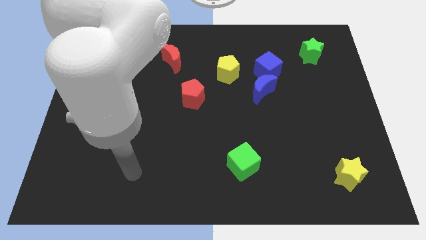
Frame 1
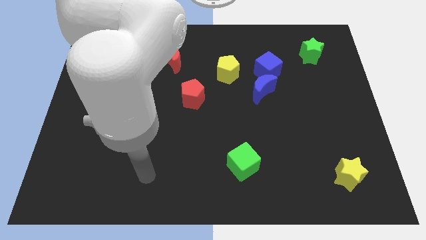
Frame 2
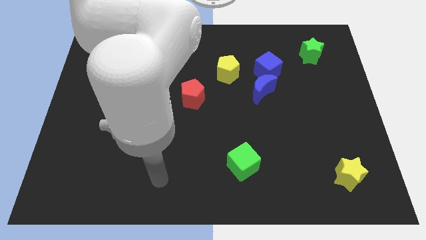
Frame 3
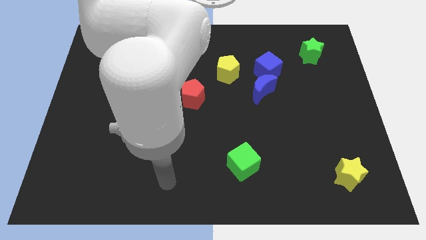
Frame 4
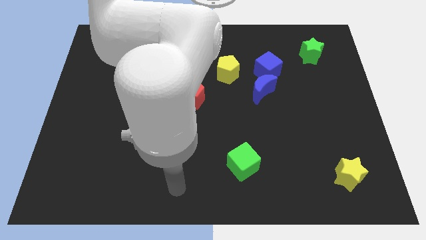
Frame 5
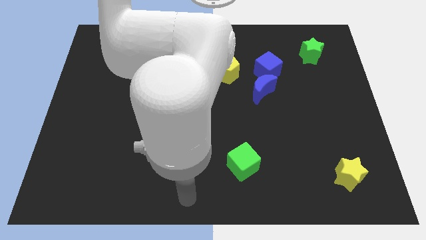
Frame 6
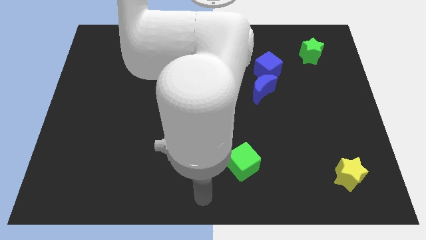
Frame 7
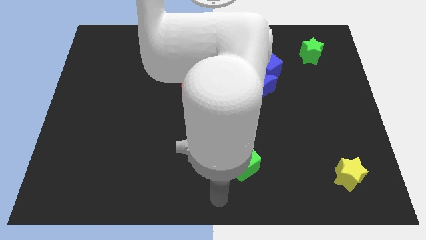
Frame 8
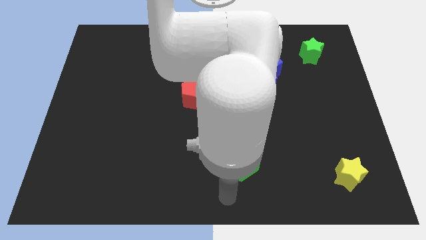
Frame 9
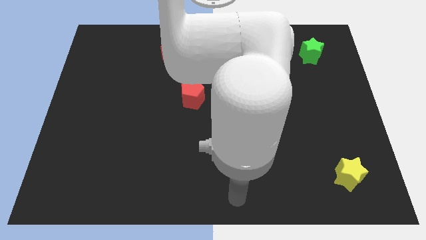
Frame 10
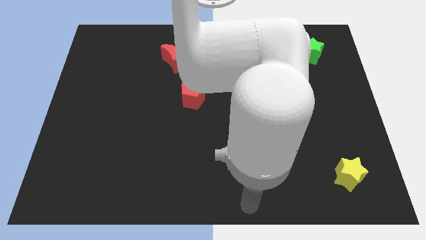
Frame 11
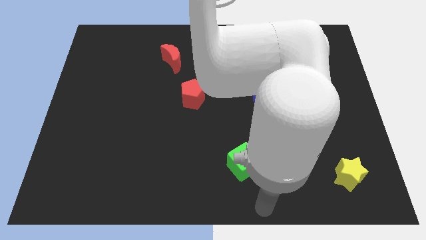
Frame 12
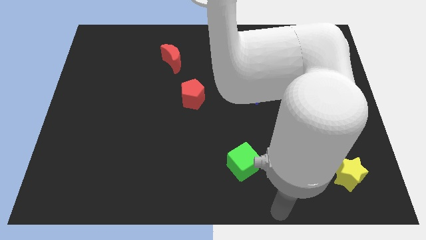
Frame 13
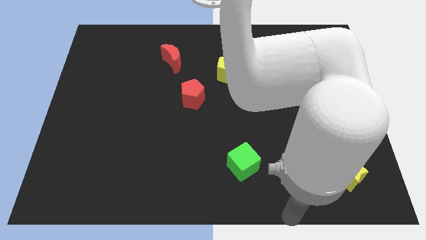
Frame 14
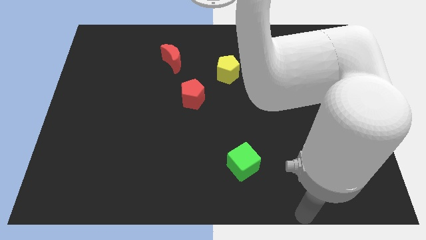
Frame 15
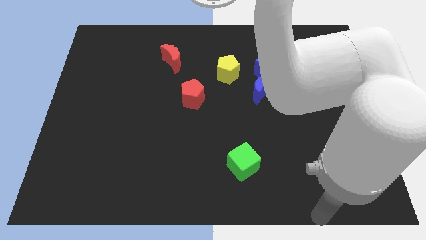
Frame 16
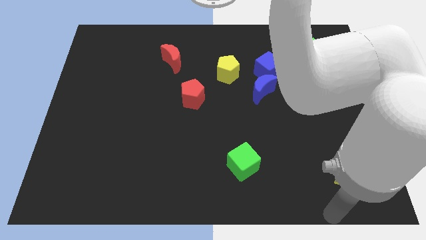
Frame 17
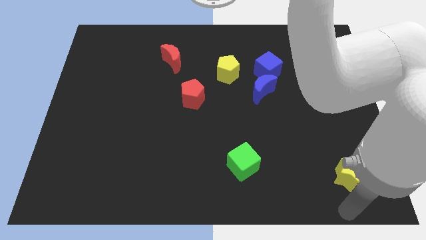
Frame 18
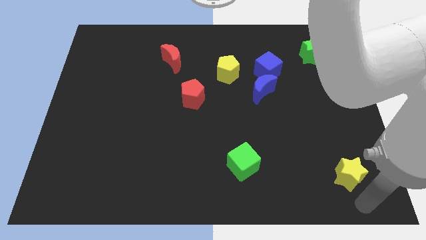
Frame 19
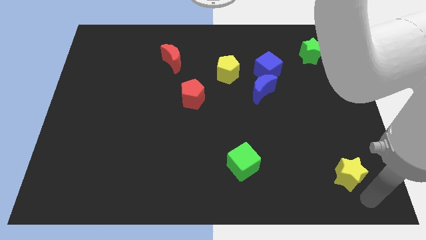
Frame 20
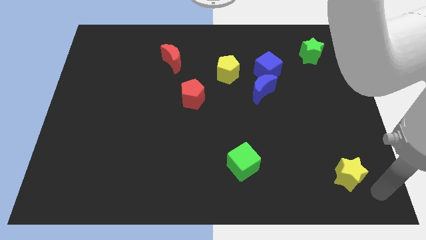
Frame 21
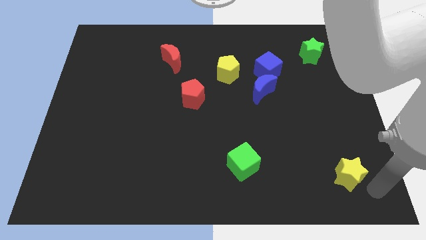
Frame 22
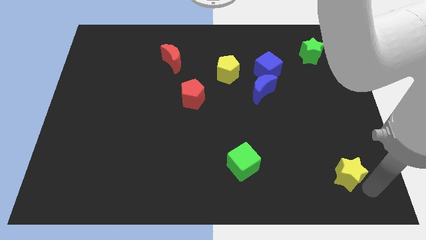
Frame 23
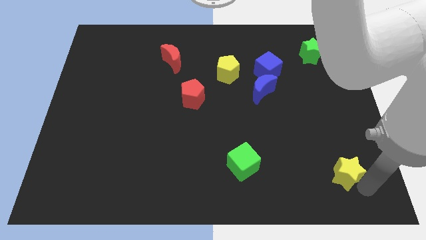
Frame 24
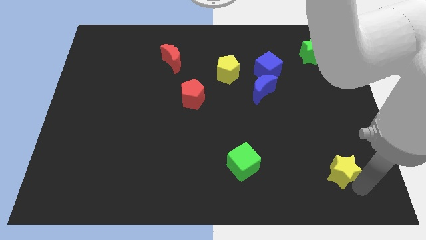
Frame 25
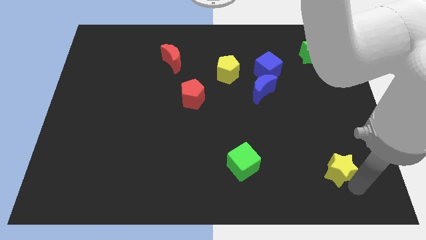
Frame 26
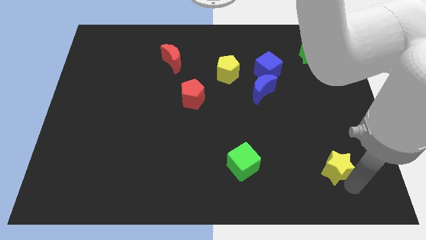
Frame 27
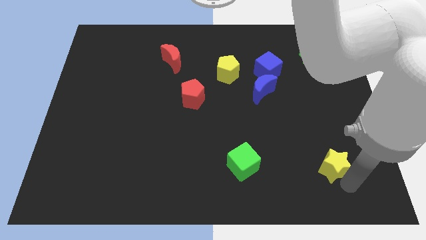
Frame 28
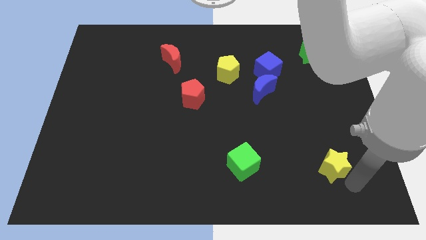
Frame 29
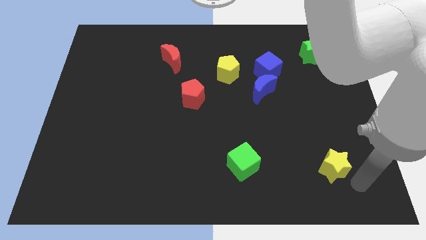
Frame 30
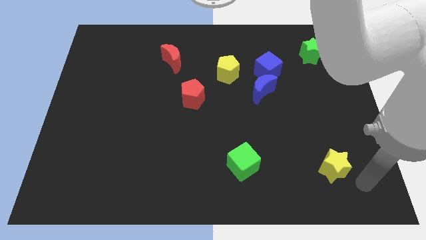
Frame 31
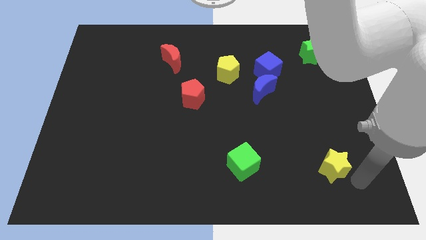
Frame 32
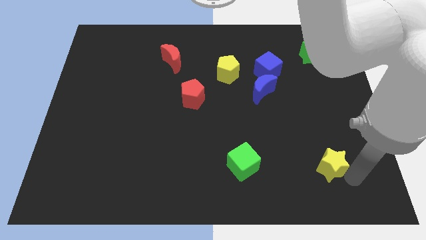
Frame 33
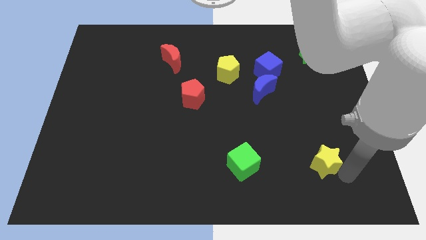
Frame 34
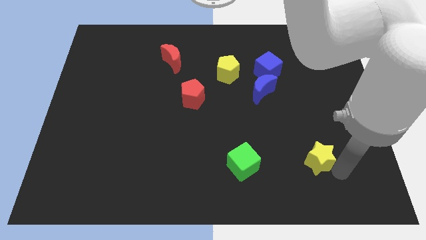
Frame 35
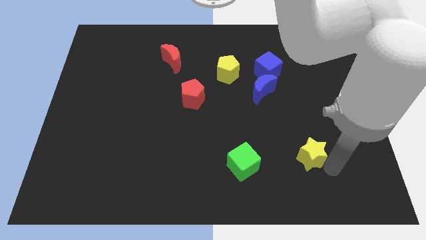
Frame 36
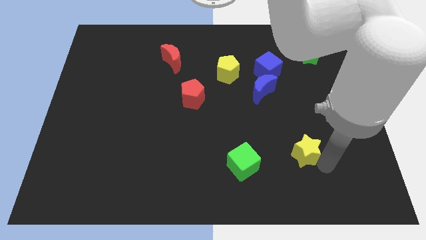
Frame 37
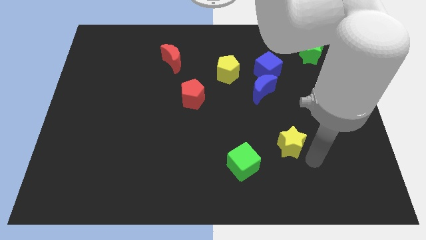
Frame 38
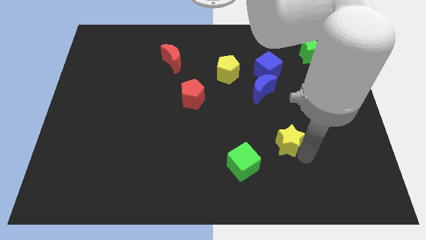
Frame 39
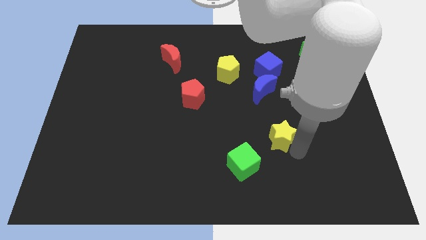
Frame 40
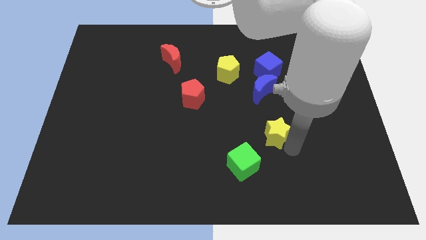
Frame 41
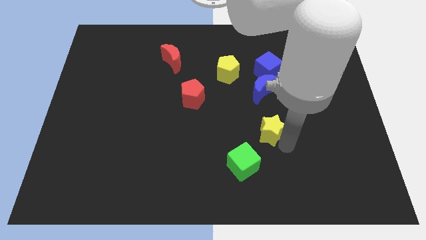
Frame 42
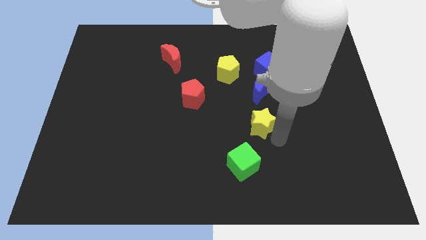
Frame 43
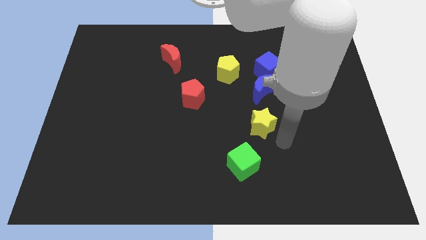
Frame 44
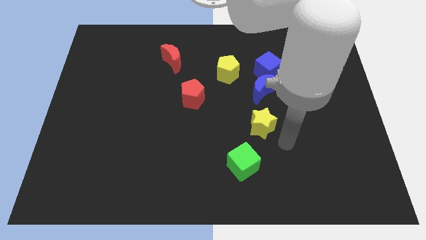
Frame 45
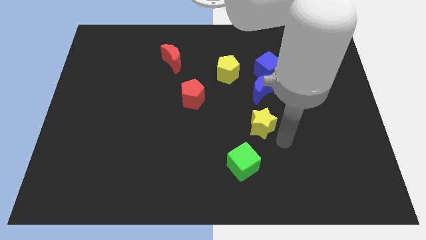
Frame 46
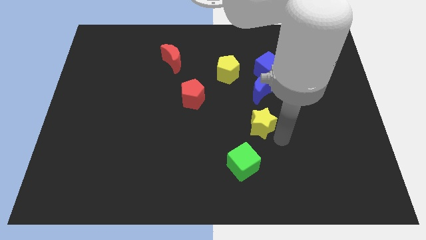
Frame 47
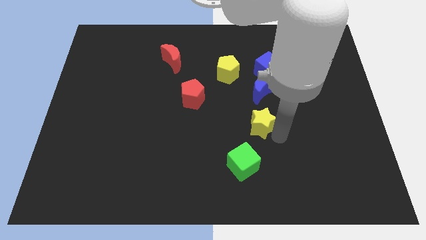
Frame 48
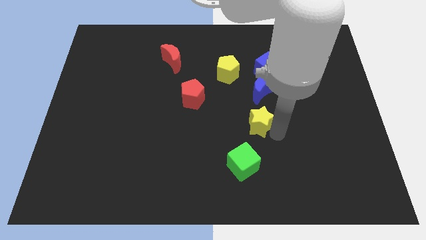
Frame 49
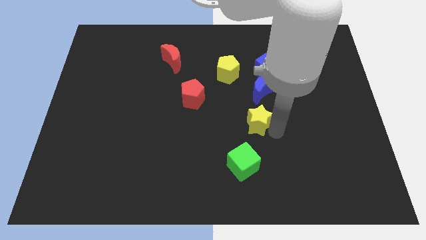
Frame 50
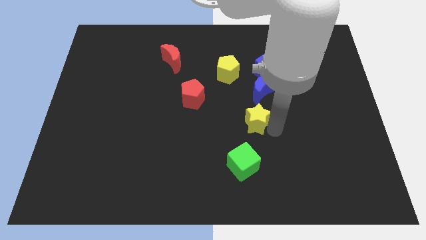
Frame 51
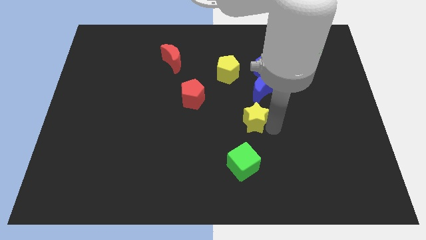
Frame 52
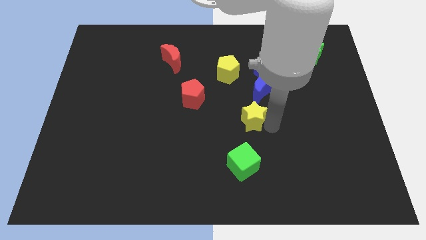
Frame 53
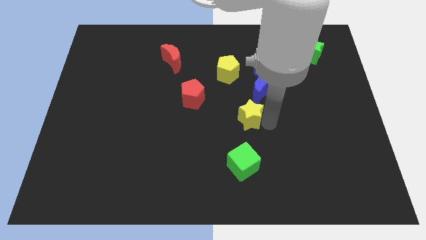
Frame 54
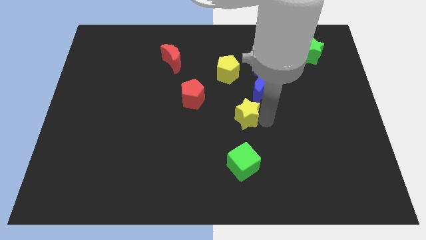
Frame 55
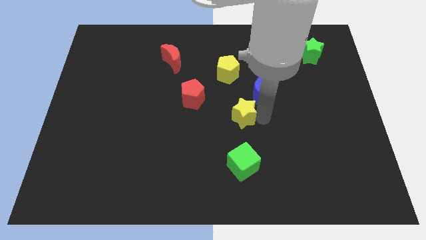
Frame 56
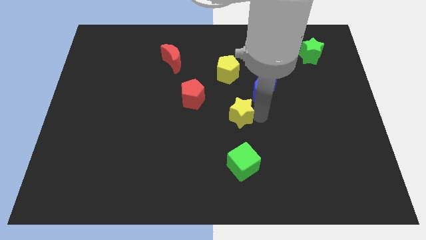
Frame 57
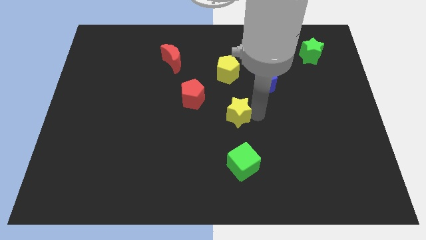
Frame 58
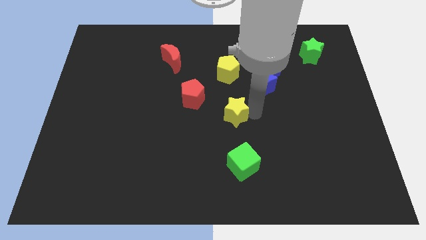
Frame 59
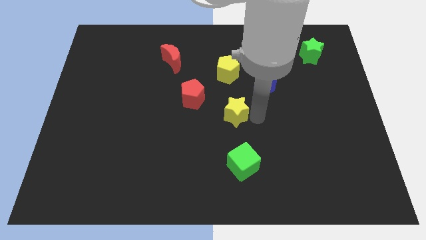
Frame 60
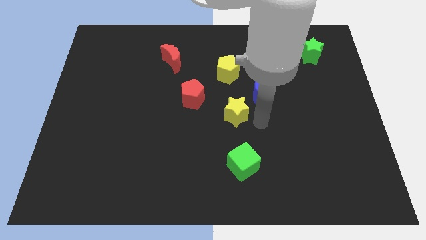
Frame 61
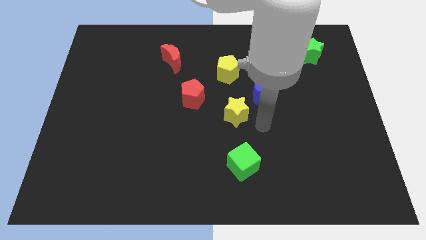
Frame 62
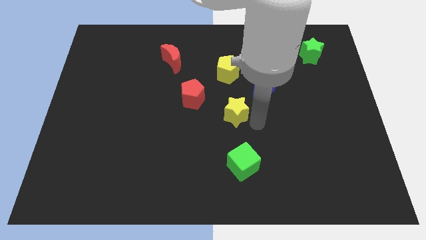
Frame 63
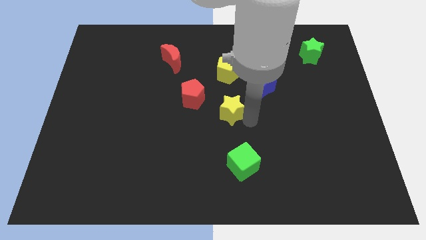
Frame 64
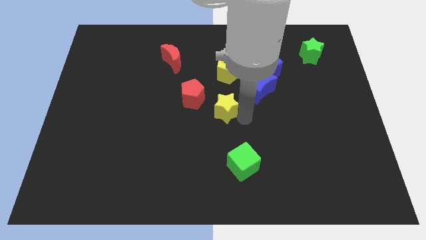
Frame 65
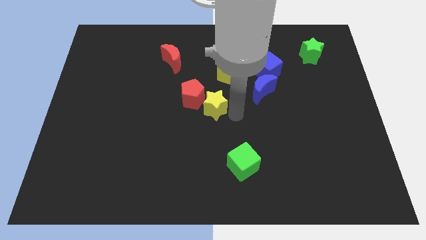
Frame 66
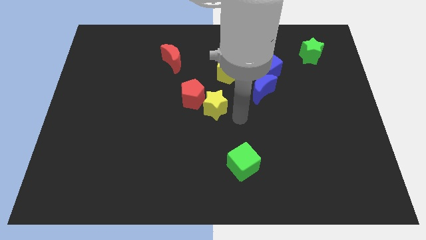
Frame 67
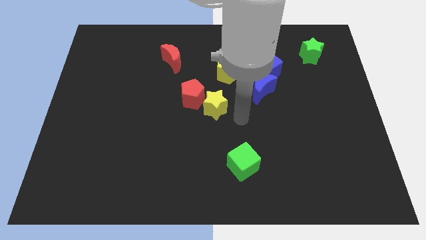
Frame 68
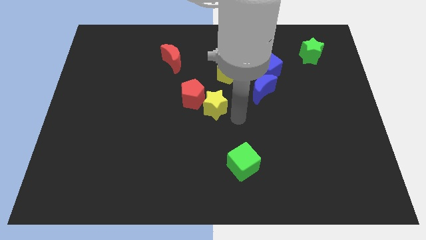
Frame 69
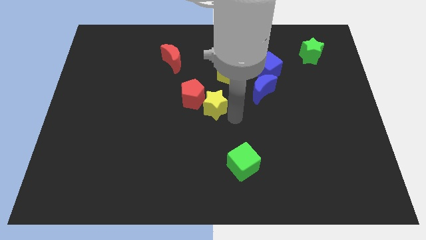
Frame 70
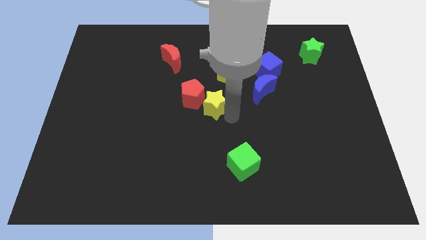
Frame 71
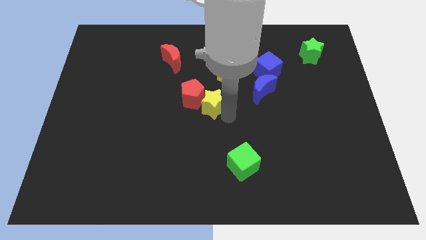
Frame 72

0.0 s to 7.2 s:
put the yellow star next to the red pentagon
